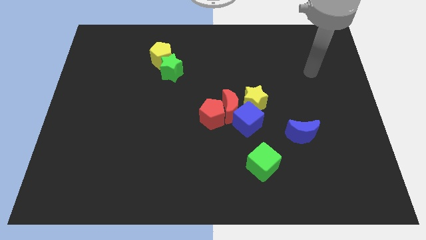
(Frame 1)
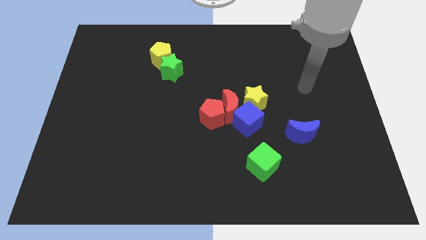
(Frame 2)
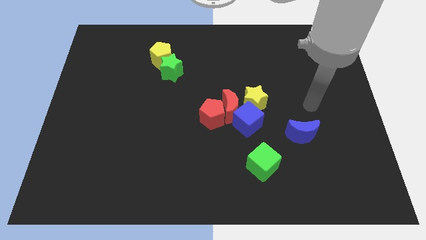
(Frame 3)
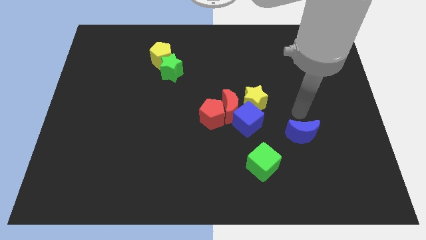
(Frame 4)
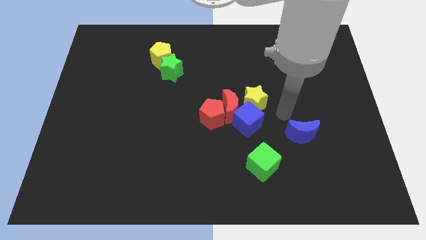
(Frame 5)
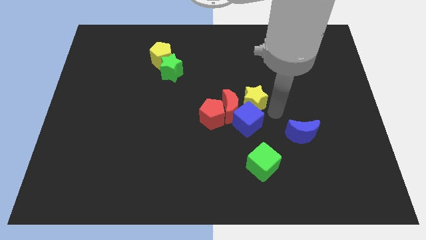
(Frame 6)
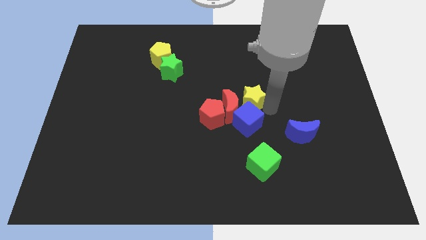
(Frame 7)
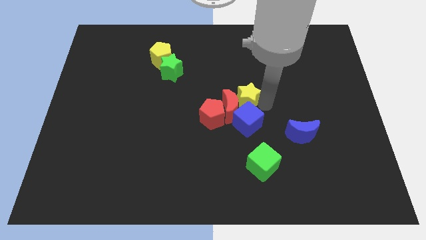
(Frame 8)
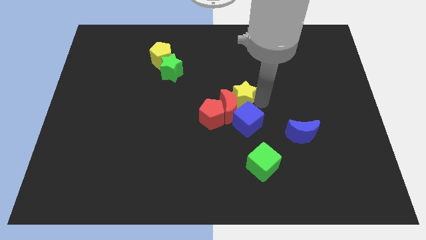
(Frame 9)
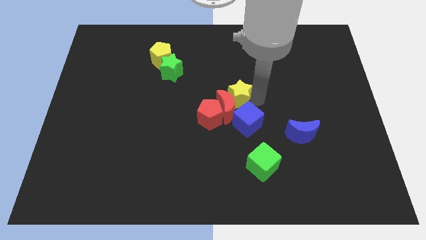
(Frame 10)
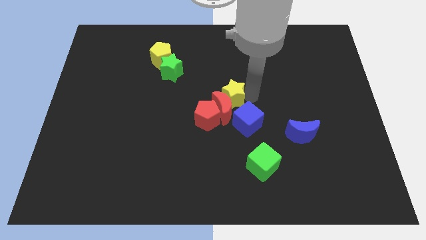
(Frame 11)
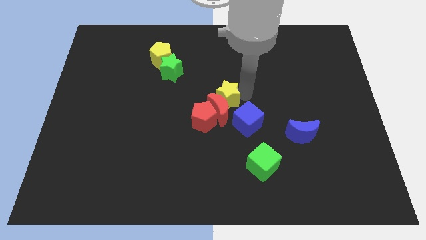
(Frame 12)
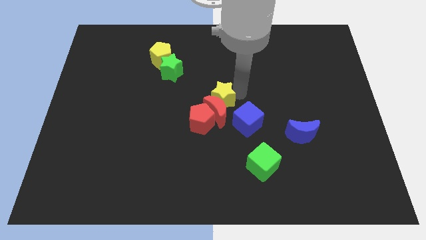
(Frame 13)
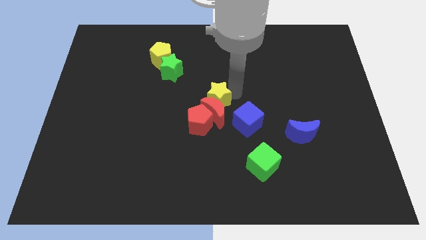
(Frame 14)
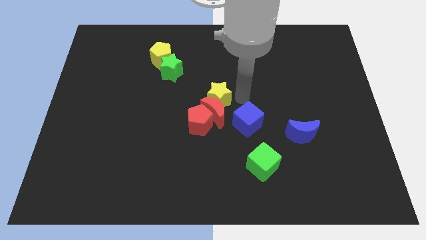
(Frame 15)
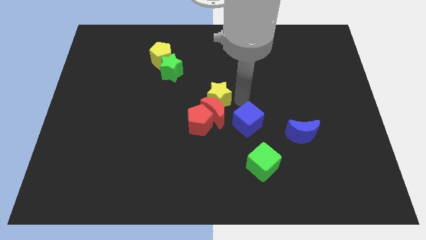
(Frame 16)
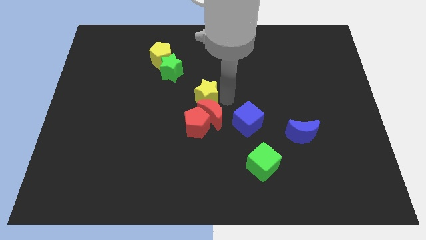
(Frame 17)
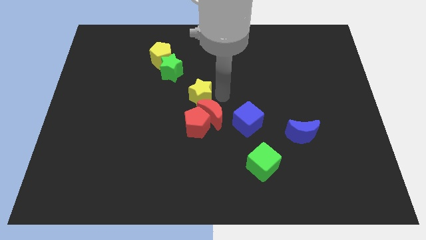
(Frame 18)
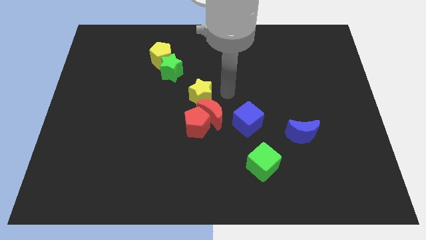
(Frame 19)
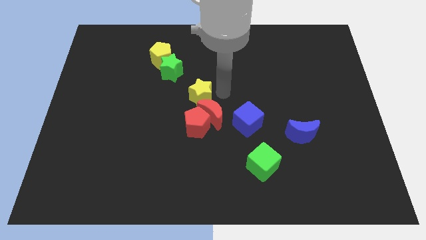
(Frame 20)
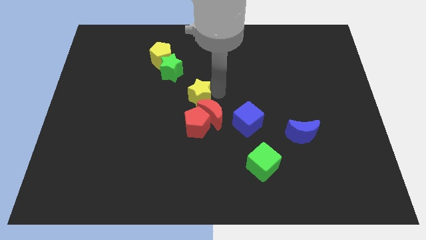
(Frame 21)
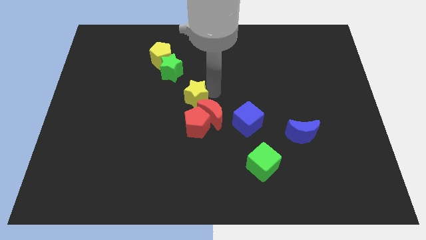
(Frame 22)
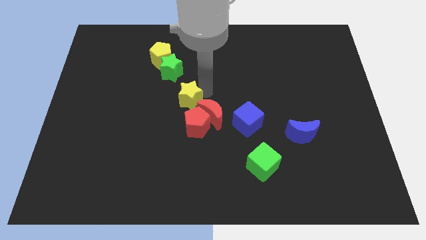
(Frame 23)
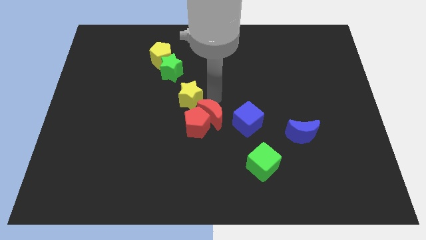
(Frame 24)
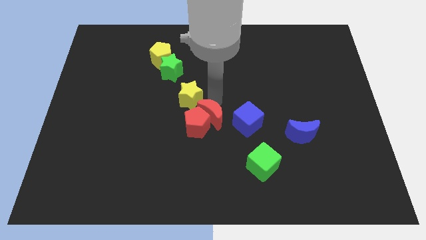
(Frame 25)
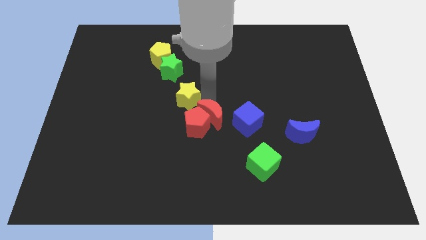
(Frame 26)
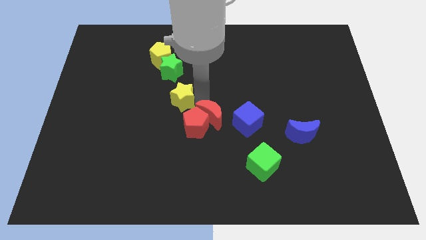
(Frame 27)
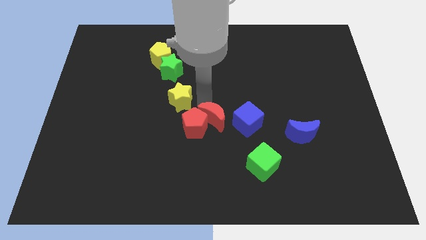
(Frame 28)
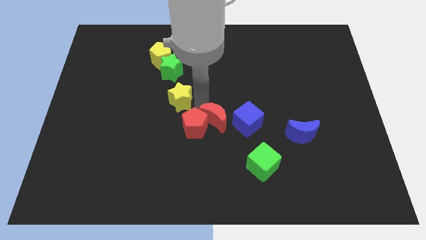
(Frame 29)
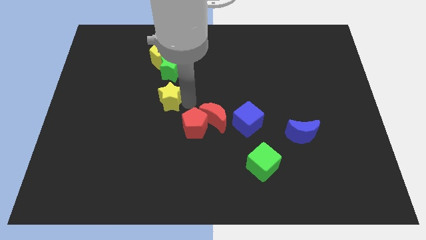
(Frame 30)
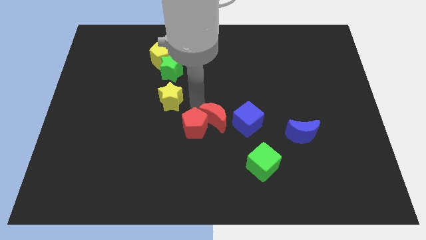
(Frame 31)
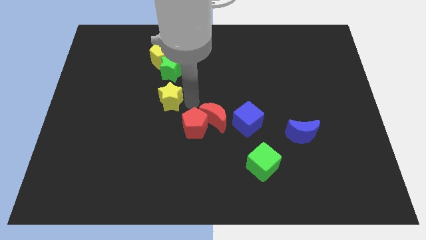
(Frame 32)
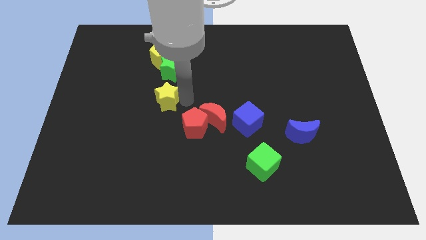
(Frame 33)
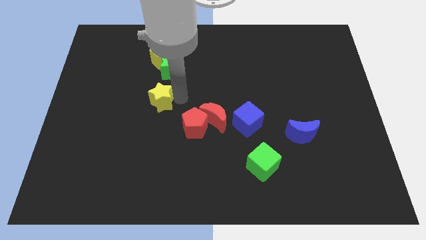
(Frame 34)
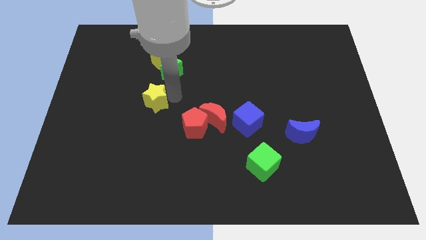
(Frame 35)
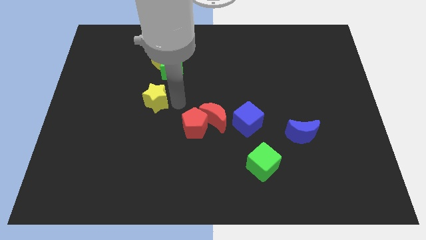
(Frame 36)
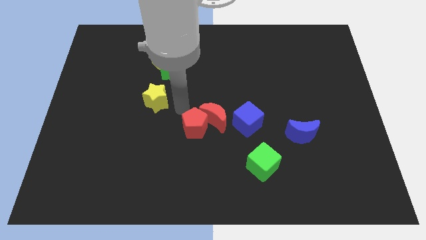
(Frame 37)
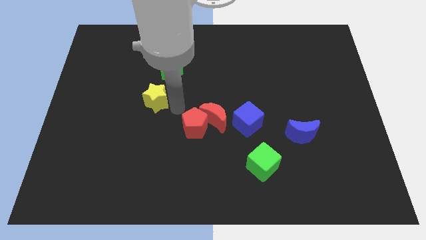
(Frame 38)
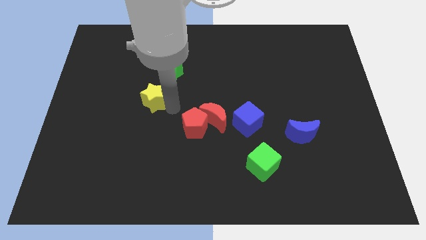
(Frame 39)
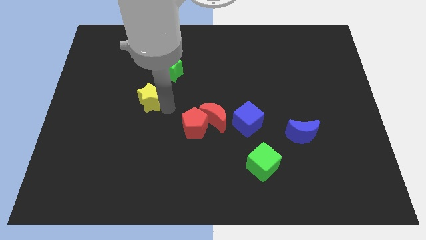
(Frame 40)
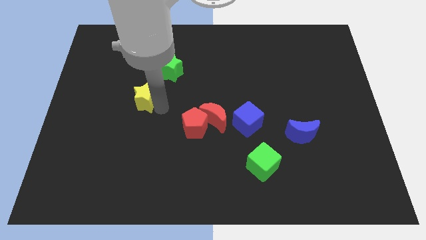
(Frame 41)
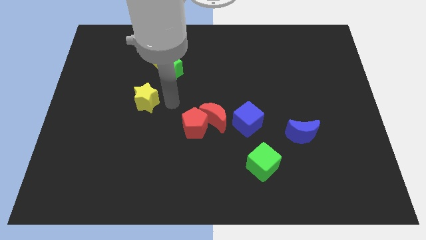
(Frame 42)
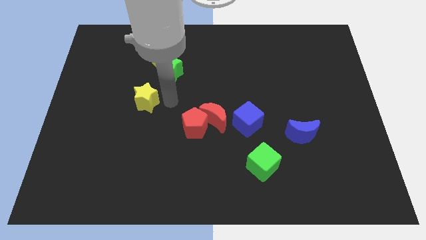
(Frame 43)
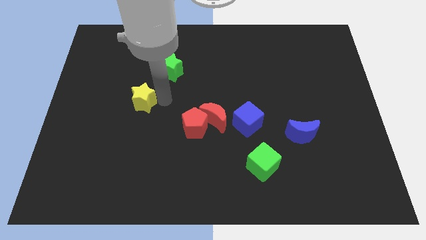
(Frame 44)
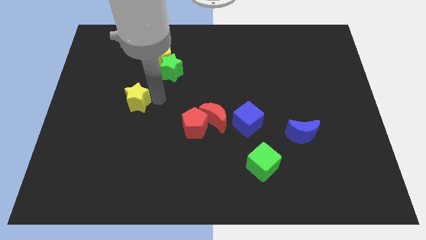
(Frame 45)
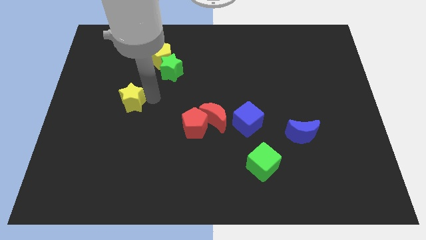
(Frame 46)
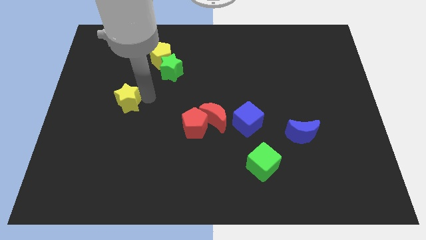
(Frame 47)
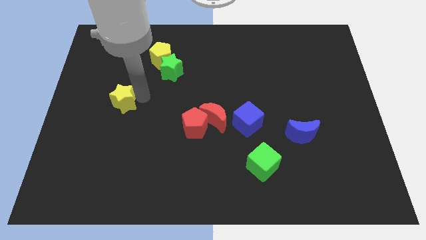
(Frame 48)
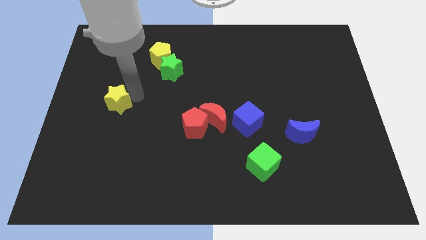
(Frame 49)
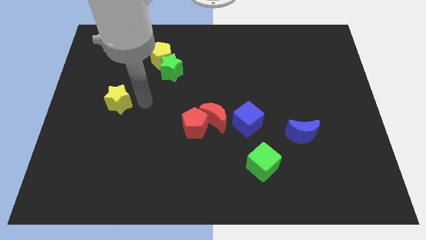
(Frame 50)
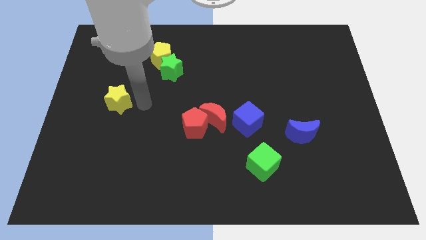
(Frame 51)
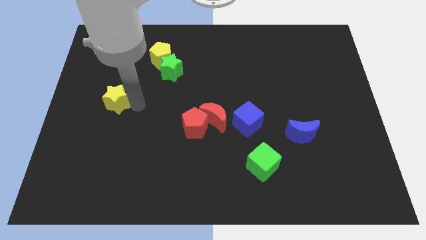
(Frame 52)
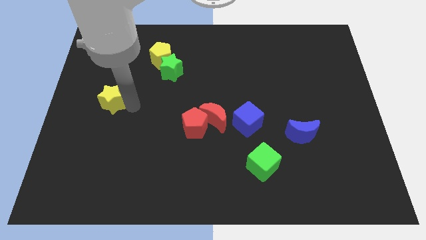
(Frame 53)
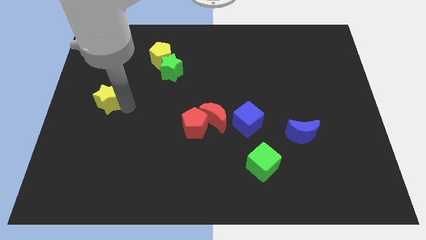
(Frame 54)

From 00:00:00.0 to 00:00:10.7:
put the yellow star to the left side of the board

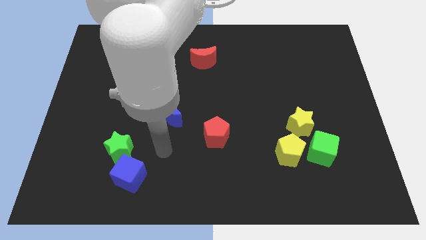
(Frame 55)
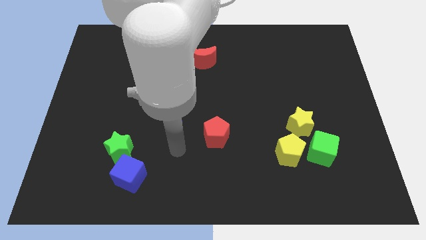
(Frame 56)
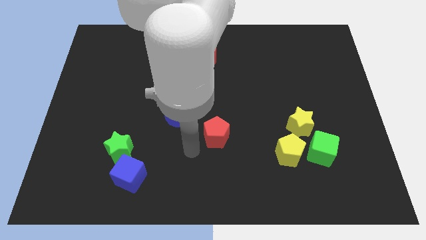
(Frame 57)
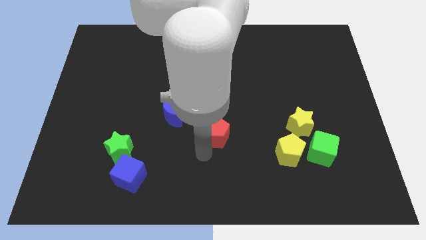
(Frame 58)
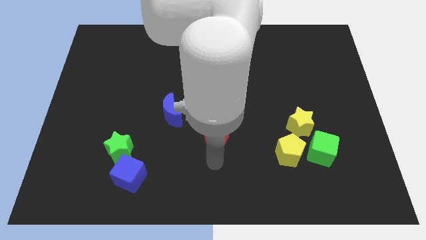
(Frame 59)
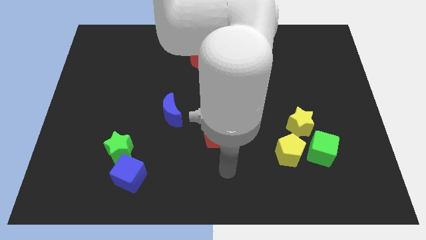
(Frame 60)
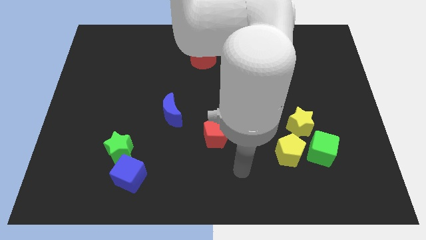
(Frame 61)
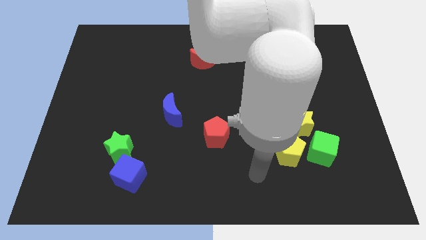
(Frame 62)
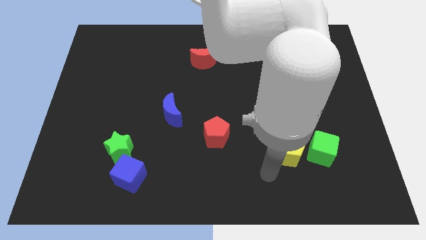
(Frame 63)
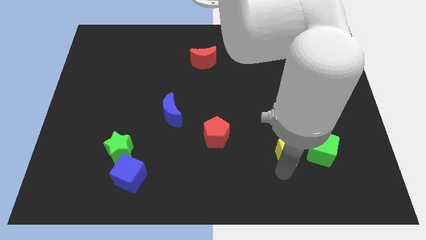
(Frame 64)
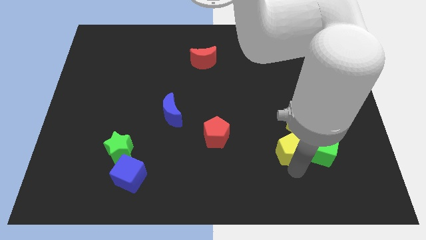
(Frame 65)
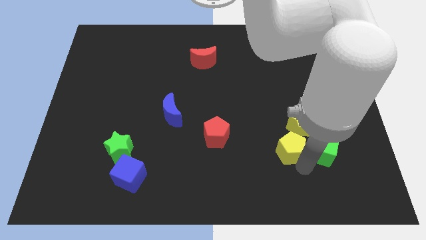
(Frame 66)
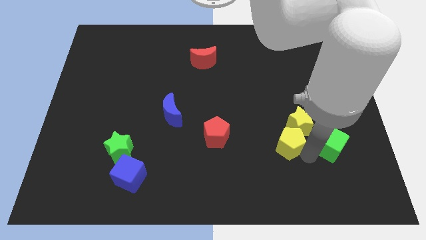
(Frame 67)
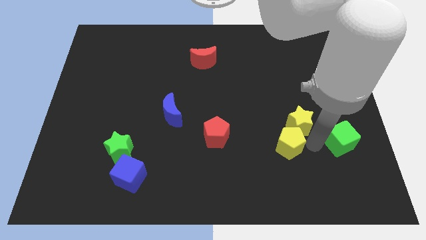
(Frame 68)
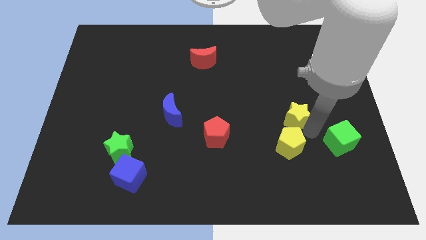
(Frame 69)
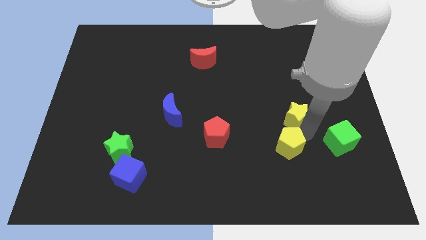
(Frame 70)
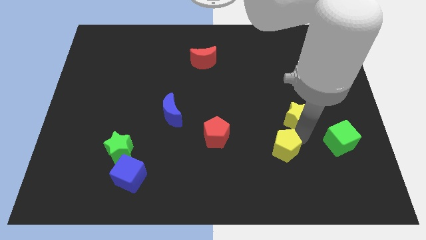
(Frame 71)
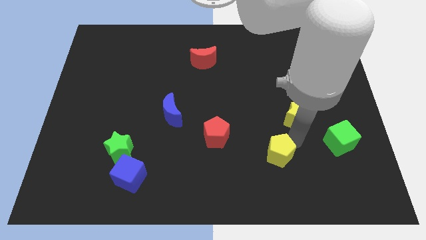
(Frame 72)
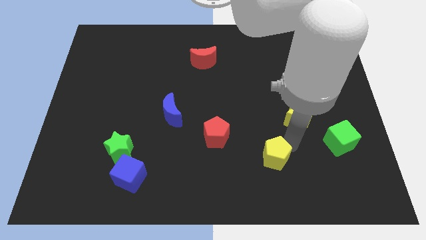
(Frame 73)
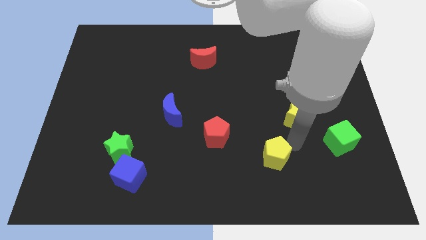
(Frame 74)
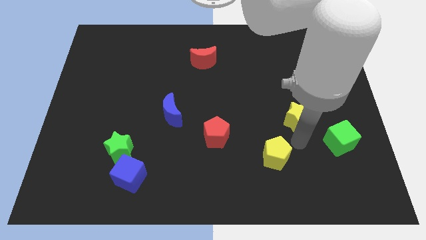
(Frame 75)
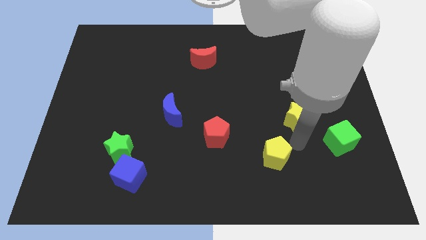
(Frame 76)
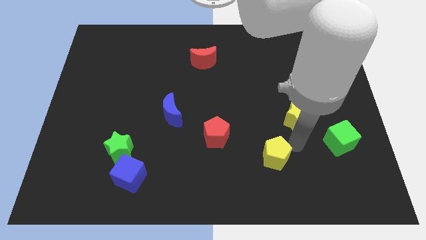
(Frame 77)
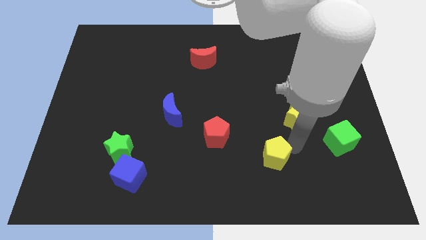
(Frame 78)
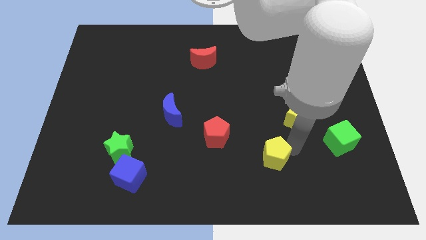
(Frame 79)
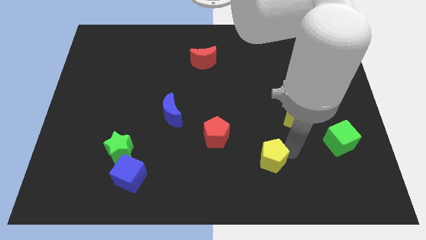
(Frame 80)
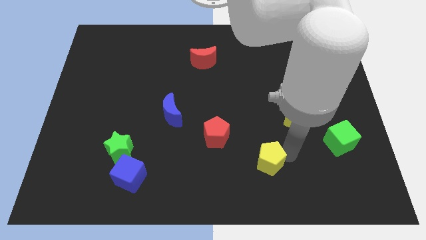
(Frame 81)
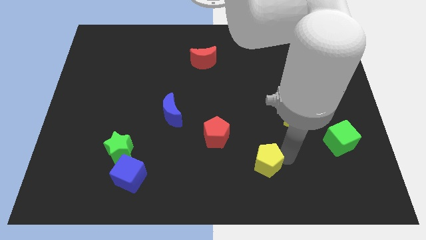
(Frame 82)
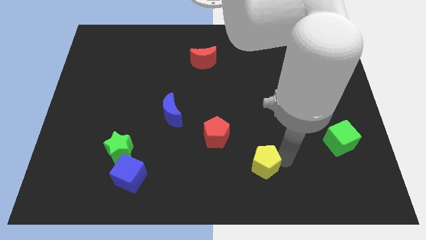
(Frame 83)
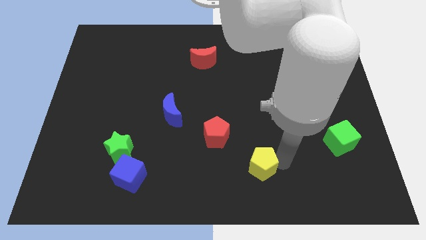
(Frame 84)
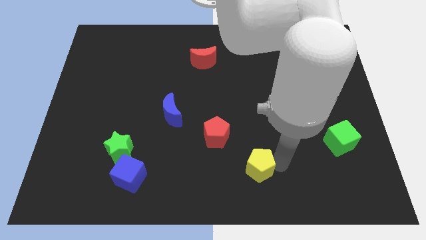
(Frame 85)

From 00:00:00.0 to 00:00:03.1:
put the yellow pentagon to the bottom side
